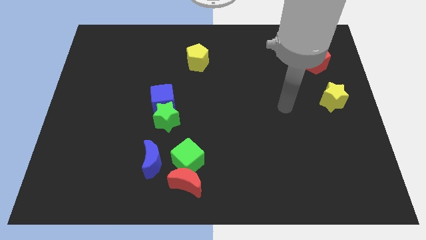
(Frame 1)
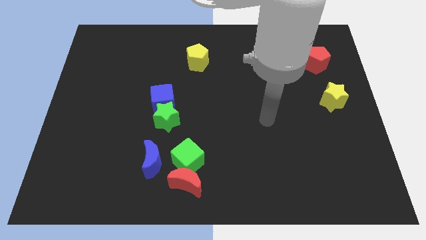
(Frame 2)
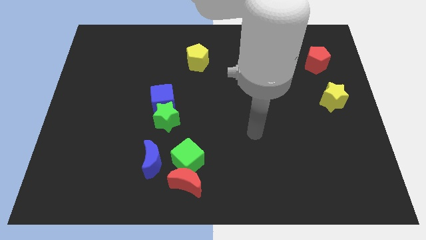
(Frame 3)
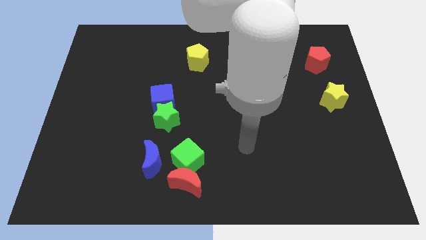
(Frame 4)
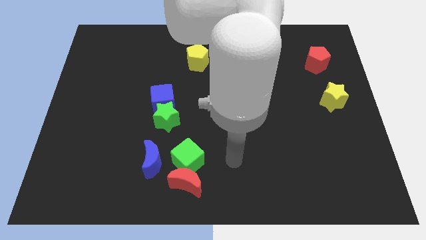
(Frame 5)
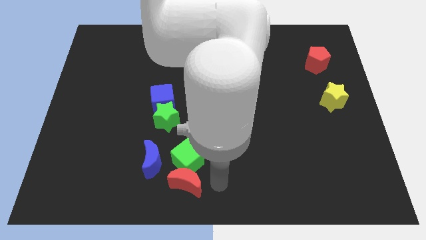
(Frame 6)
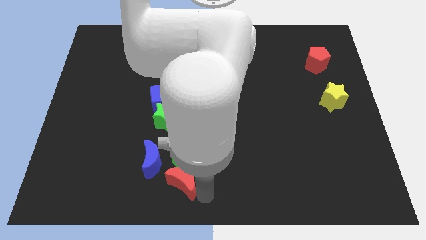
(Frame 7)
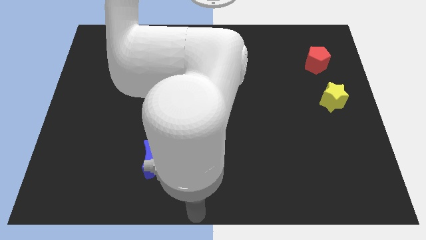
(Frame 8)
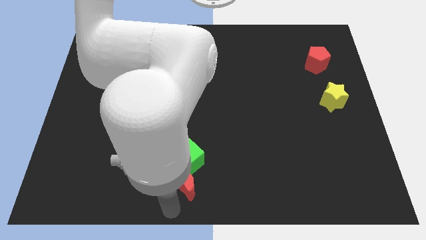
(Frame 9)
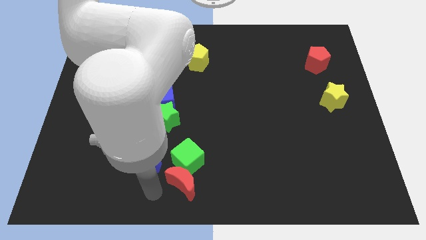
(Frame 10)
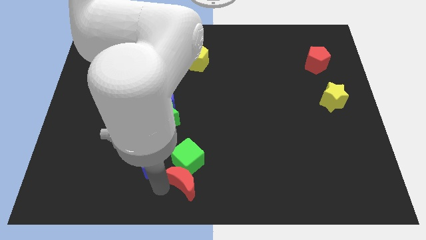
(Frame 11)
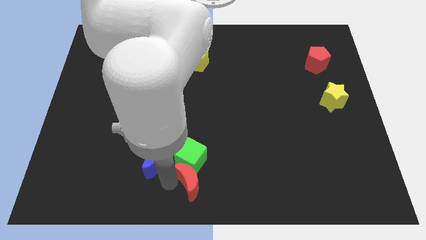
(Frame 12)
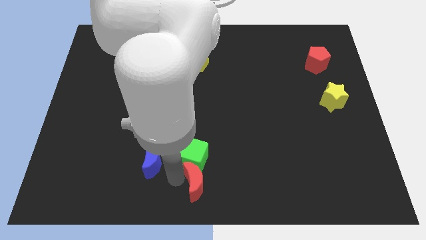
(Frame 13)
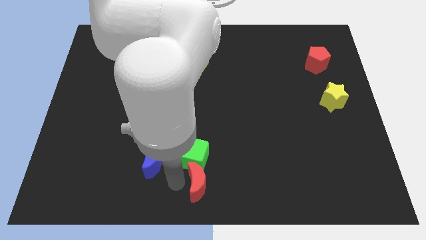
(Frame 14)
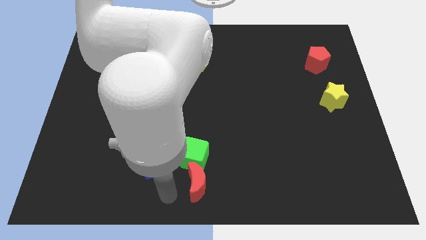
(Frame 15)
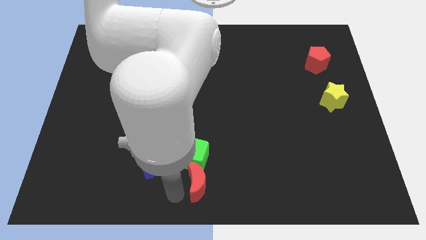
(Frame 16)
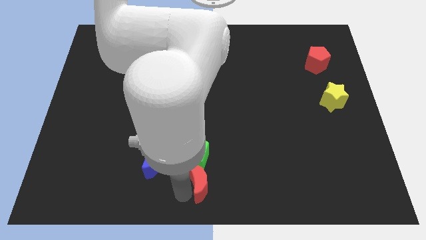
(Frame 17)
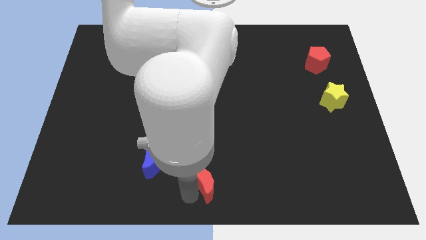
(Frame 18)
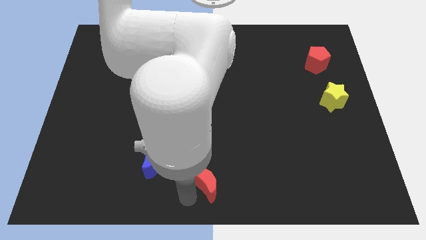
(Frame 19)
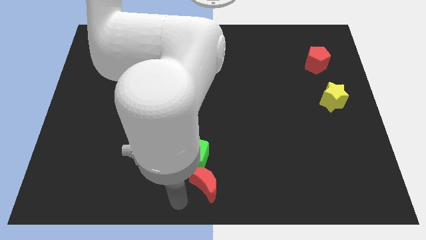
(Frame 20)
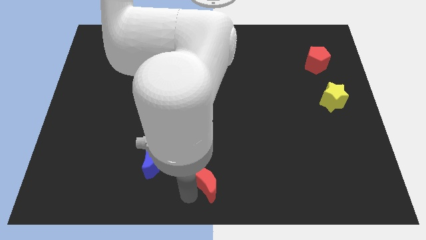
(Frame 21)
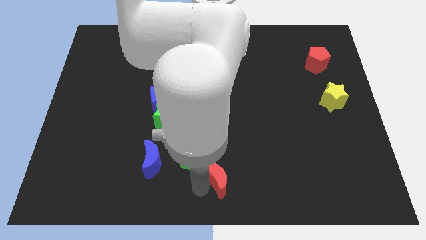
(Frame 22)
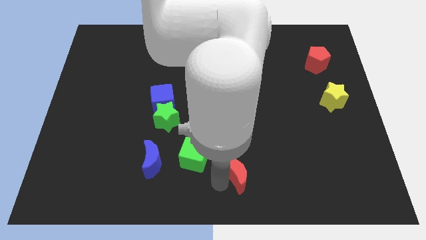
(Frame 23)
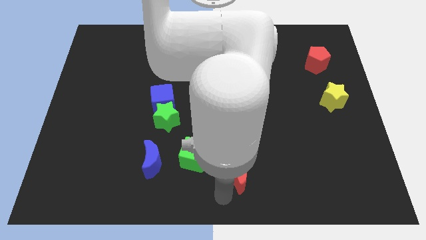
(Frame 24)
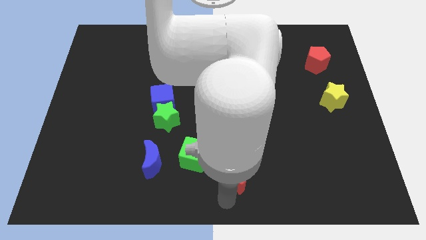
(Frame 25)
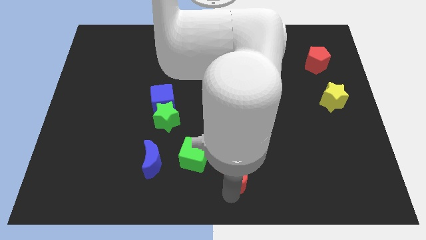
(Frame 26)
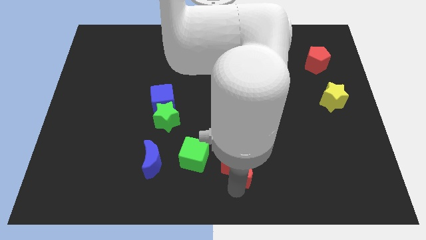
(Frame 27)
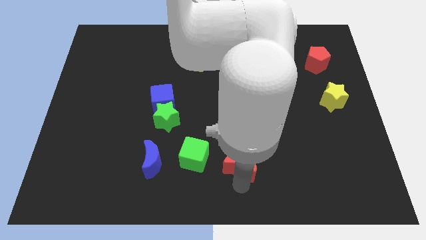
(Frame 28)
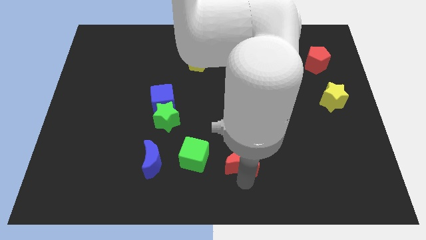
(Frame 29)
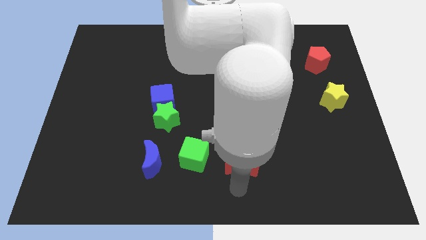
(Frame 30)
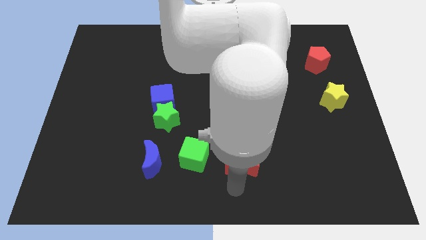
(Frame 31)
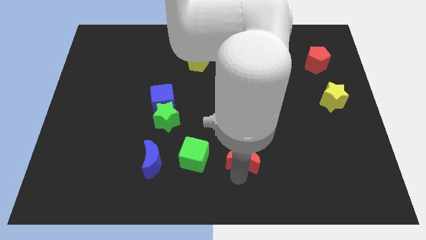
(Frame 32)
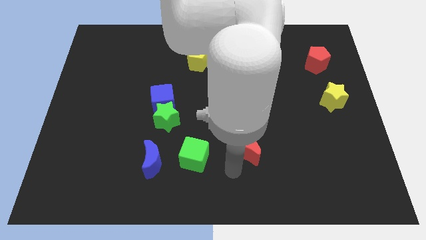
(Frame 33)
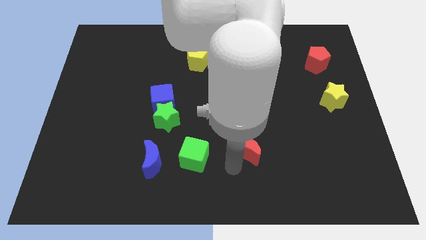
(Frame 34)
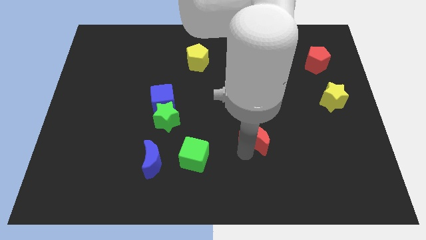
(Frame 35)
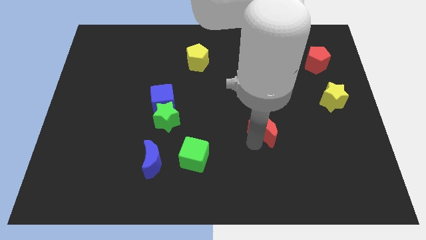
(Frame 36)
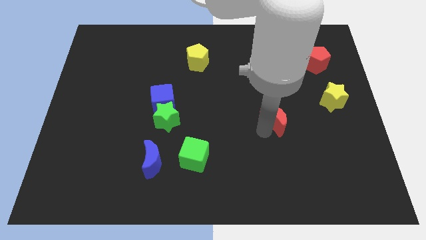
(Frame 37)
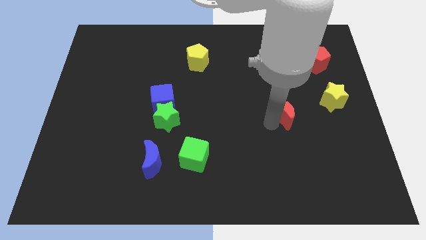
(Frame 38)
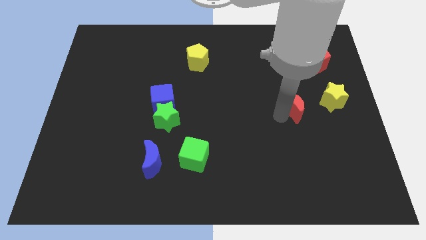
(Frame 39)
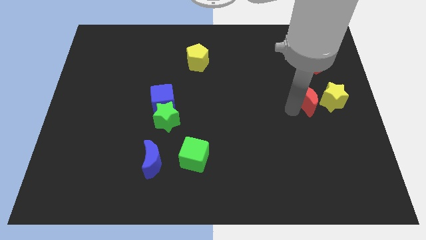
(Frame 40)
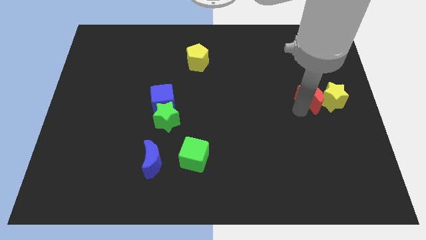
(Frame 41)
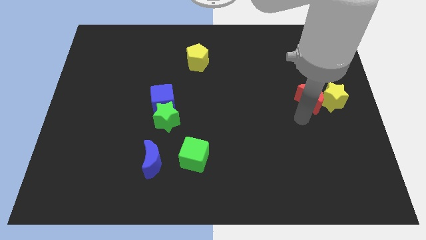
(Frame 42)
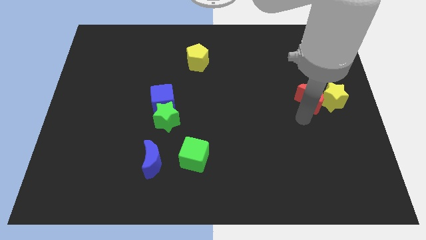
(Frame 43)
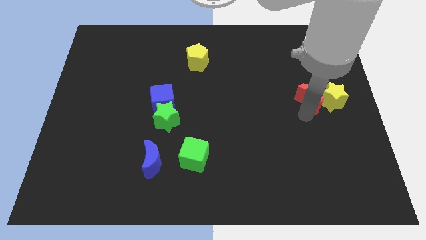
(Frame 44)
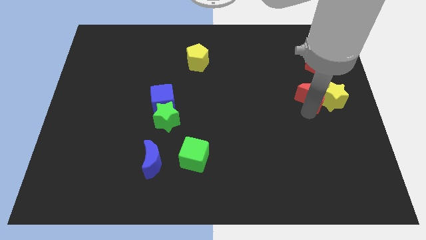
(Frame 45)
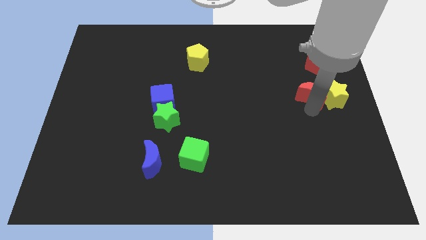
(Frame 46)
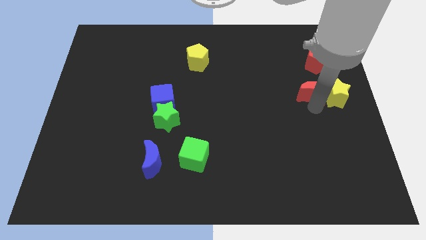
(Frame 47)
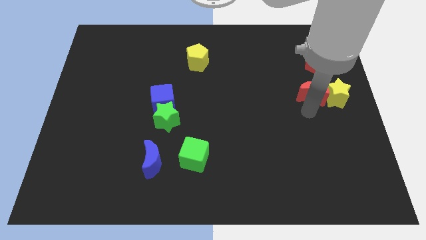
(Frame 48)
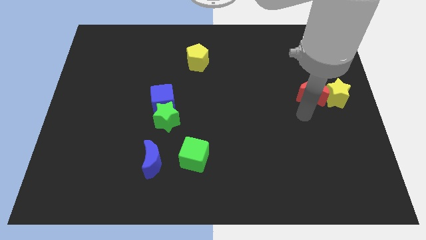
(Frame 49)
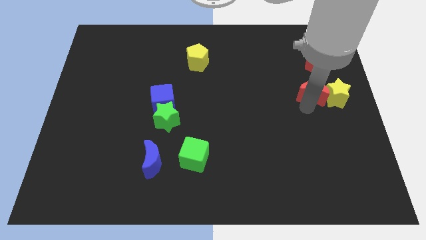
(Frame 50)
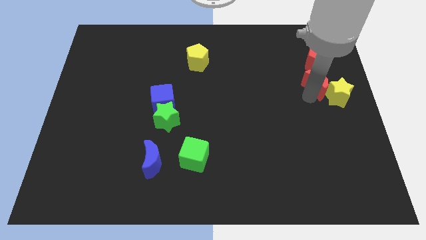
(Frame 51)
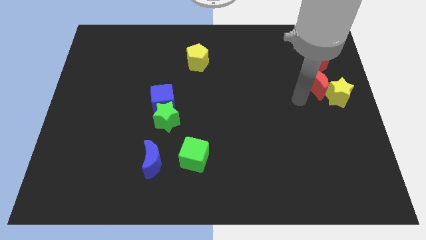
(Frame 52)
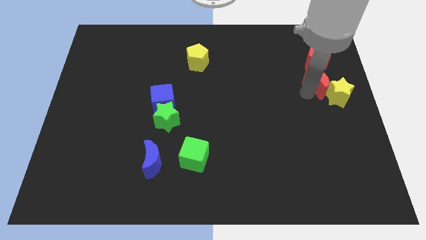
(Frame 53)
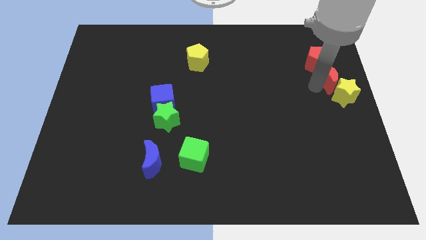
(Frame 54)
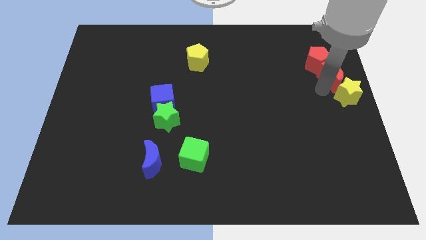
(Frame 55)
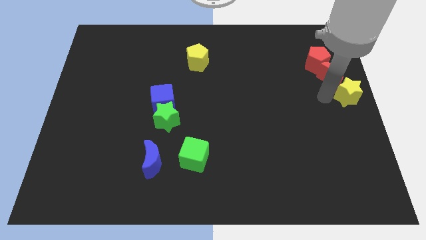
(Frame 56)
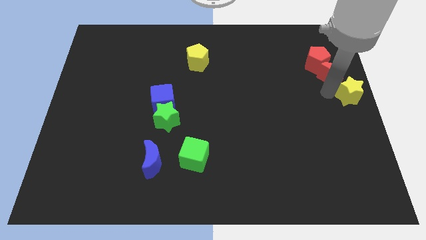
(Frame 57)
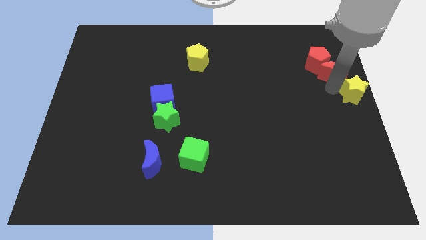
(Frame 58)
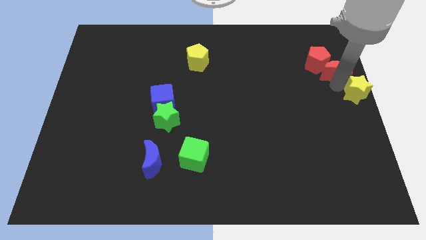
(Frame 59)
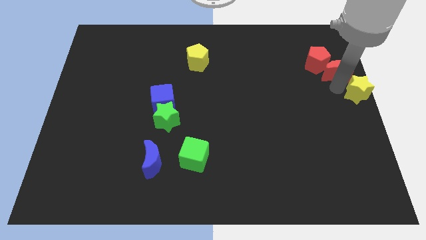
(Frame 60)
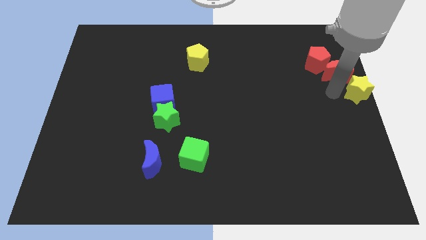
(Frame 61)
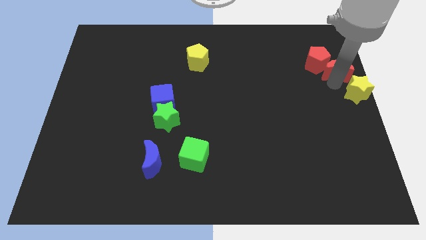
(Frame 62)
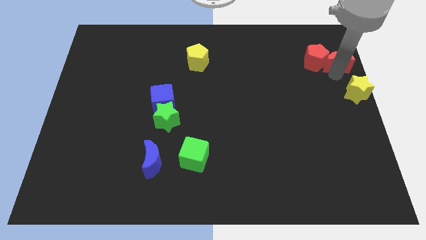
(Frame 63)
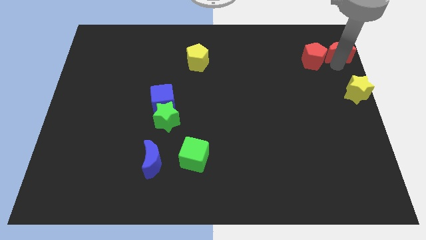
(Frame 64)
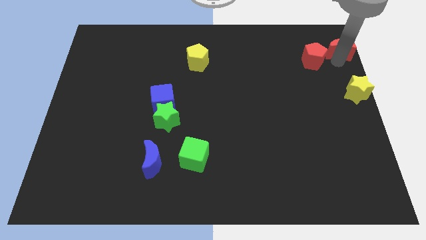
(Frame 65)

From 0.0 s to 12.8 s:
put the red moon to the top right of the board

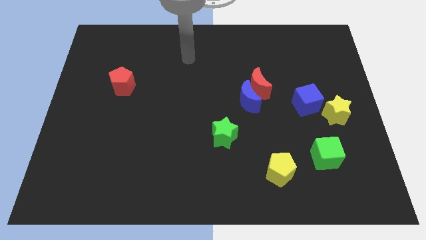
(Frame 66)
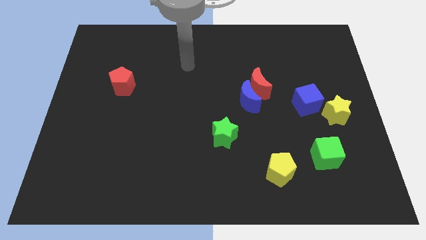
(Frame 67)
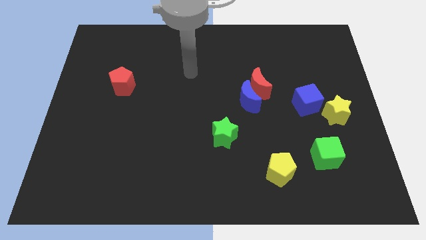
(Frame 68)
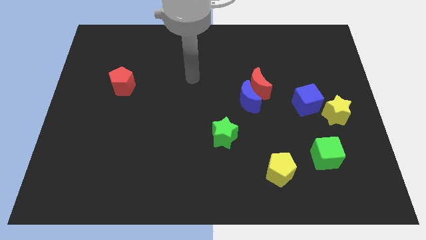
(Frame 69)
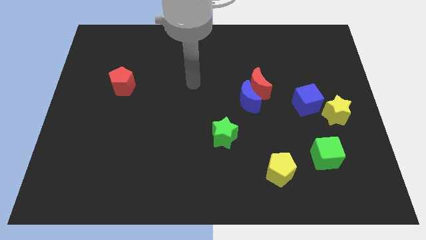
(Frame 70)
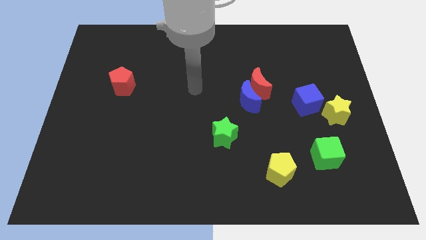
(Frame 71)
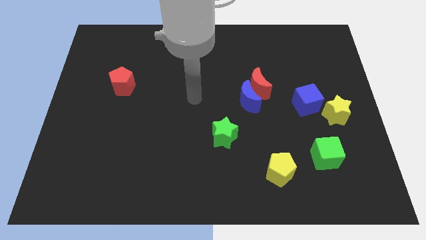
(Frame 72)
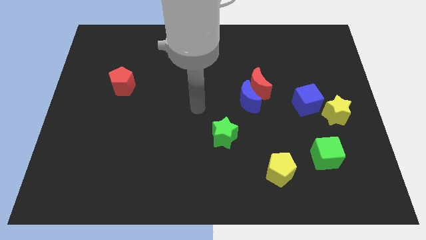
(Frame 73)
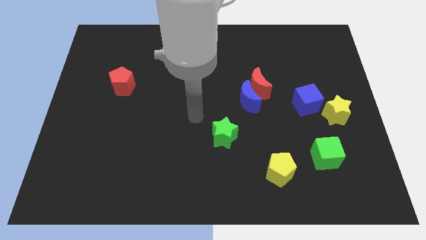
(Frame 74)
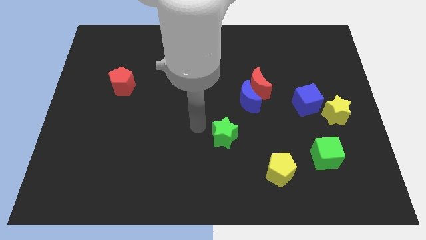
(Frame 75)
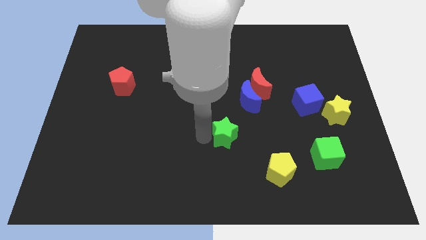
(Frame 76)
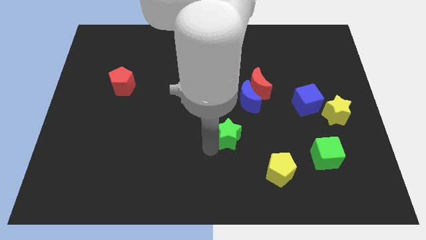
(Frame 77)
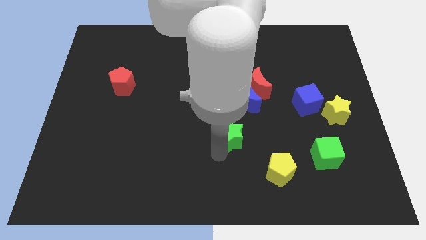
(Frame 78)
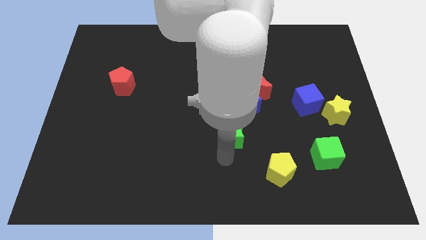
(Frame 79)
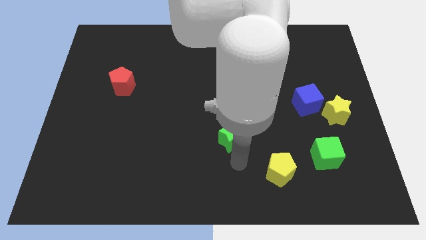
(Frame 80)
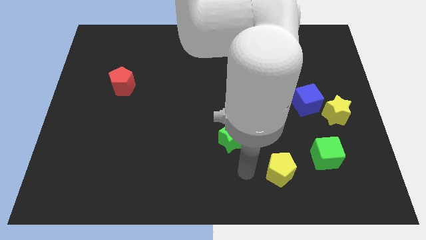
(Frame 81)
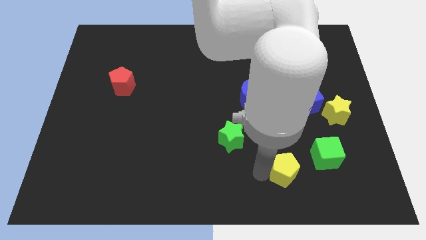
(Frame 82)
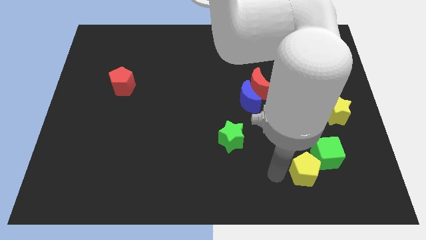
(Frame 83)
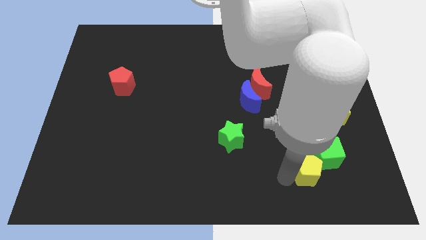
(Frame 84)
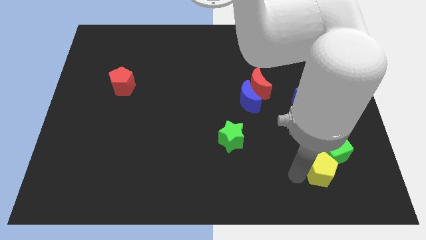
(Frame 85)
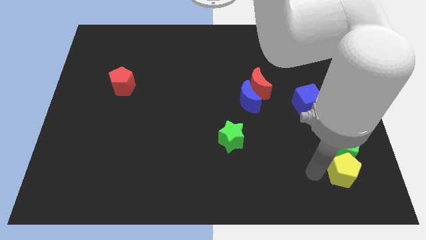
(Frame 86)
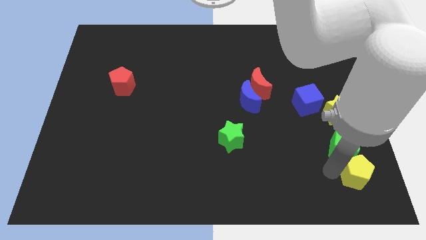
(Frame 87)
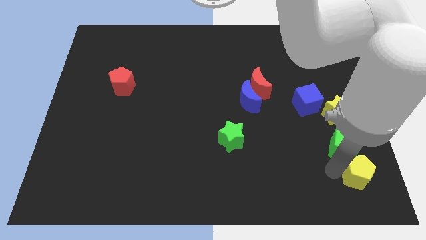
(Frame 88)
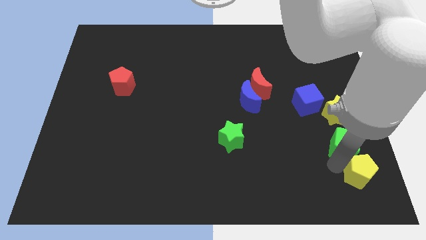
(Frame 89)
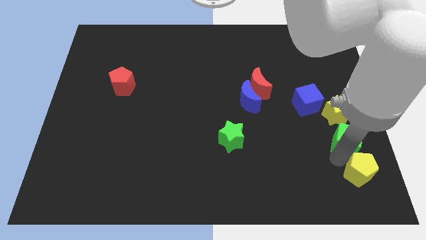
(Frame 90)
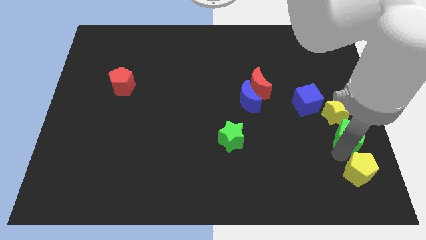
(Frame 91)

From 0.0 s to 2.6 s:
put the green cube to the right side
